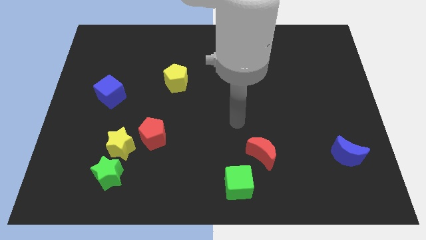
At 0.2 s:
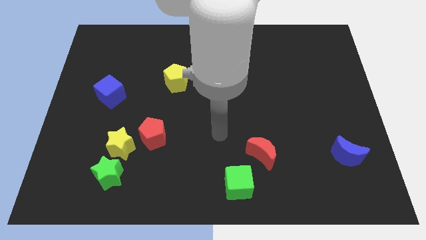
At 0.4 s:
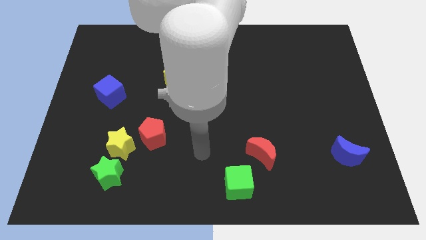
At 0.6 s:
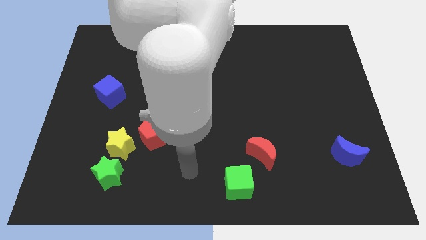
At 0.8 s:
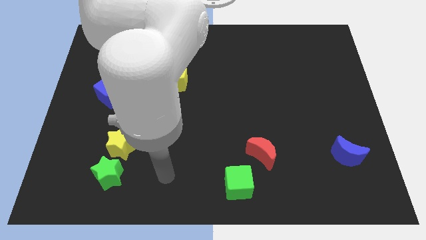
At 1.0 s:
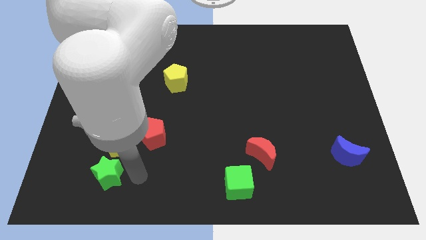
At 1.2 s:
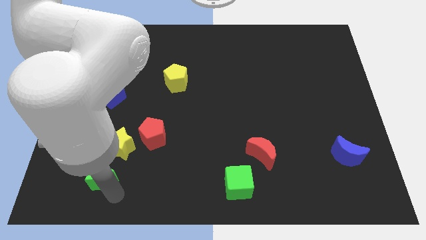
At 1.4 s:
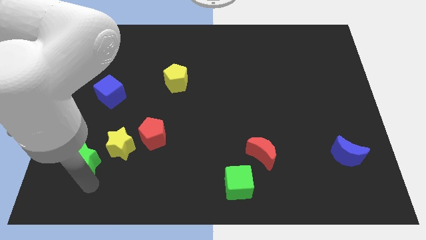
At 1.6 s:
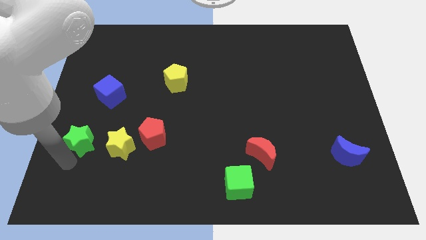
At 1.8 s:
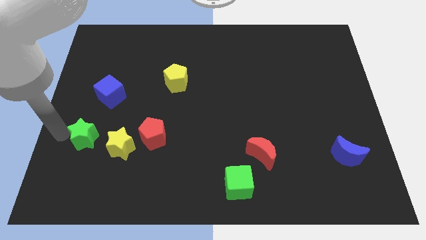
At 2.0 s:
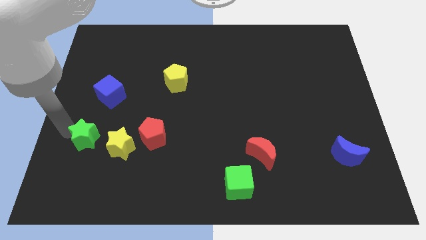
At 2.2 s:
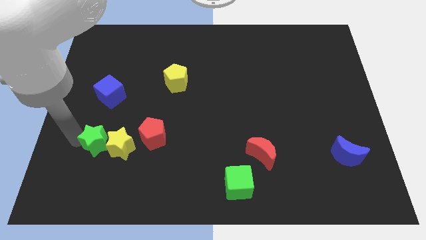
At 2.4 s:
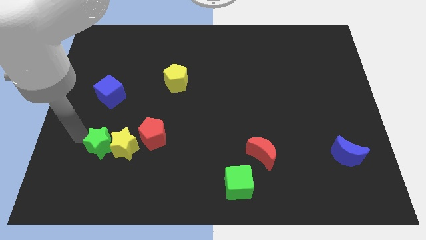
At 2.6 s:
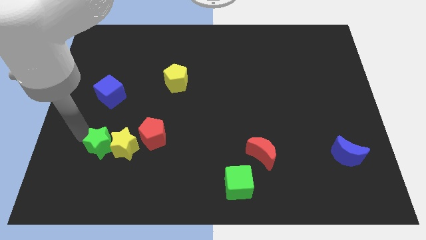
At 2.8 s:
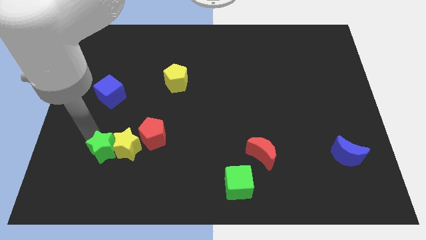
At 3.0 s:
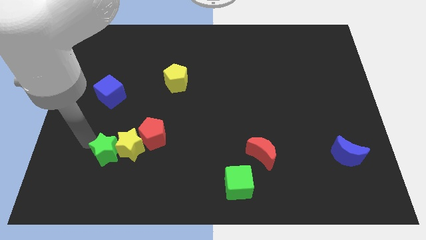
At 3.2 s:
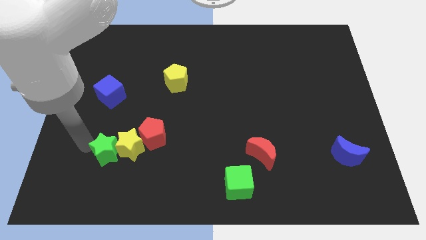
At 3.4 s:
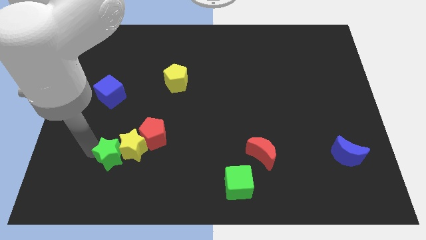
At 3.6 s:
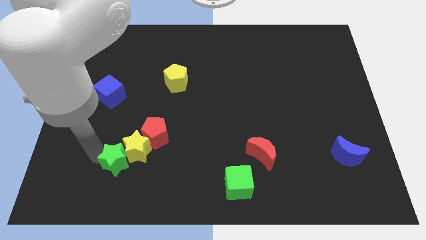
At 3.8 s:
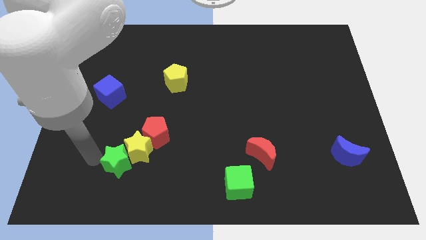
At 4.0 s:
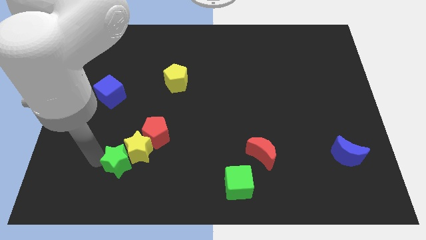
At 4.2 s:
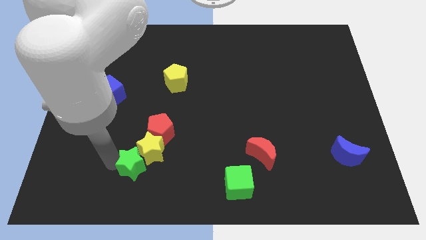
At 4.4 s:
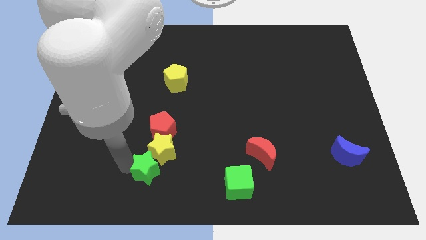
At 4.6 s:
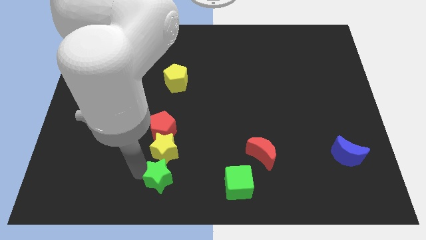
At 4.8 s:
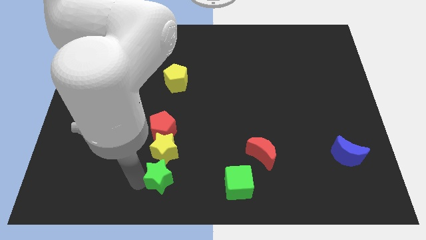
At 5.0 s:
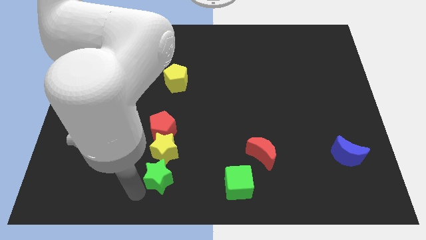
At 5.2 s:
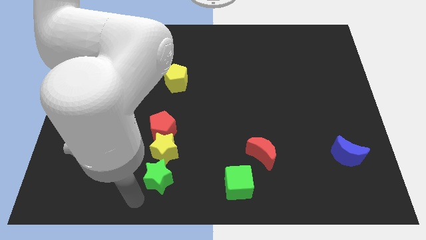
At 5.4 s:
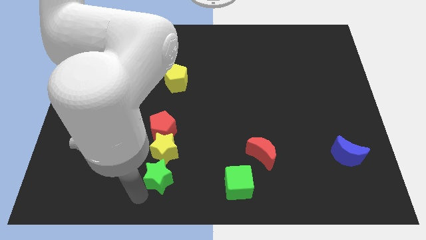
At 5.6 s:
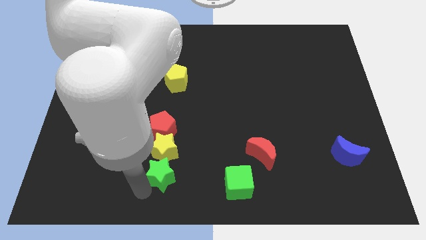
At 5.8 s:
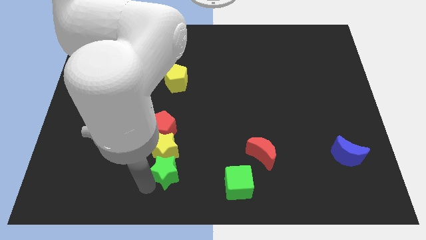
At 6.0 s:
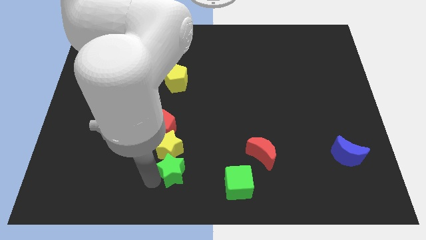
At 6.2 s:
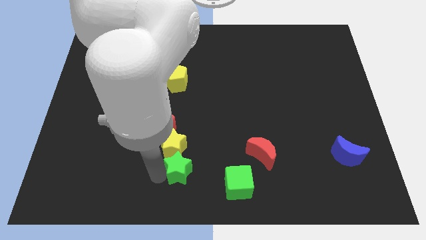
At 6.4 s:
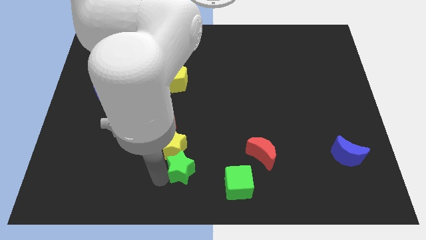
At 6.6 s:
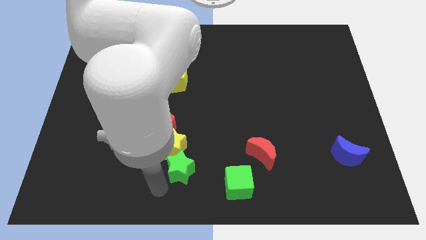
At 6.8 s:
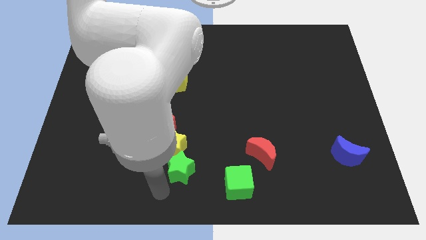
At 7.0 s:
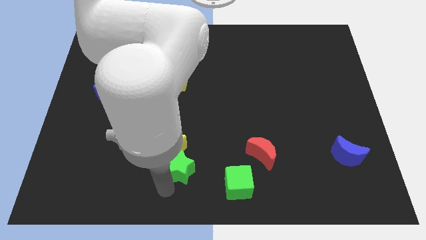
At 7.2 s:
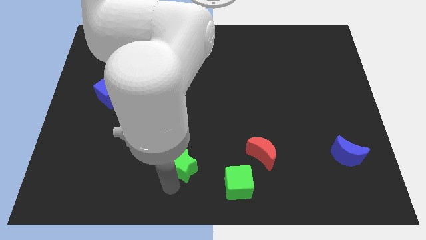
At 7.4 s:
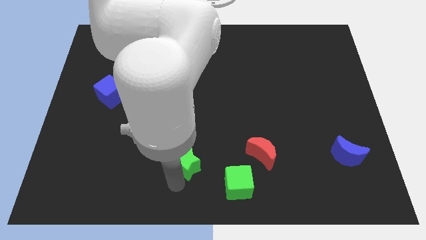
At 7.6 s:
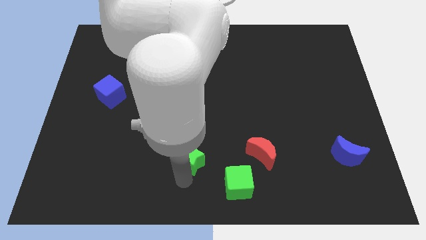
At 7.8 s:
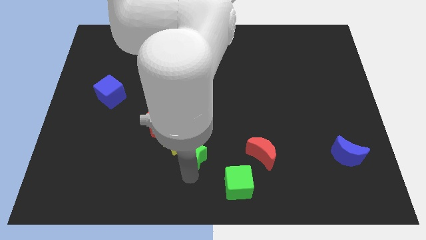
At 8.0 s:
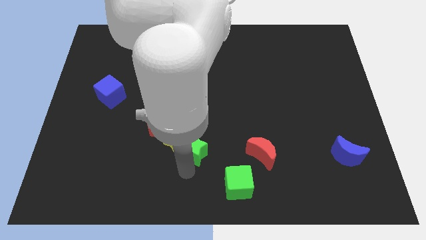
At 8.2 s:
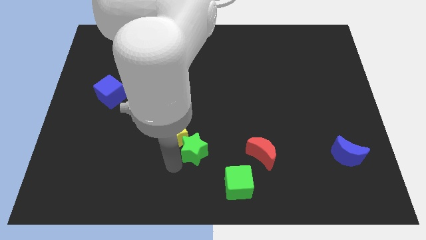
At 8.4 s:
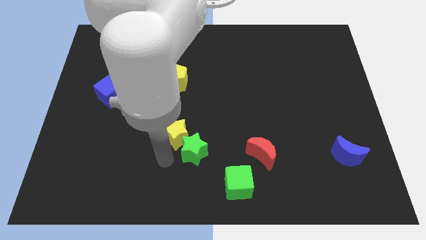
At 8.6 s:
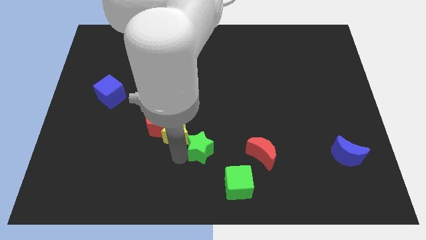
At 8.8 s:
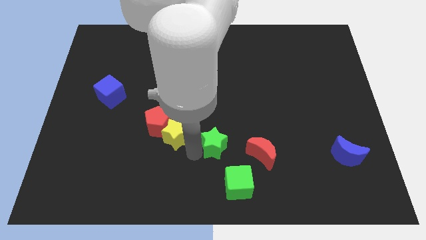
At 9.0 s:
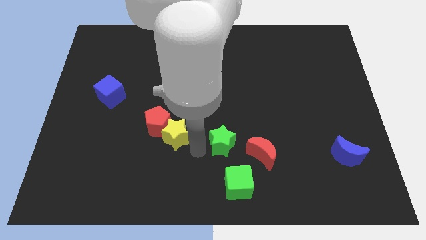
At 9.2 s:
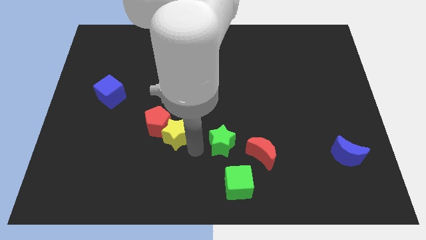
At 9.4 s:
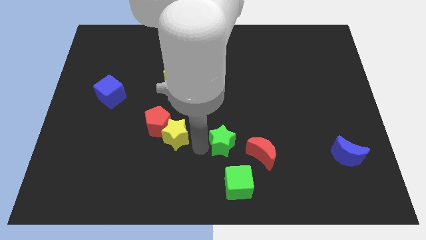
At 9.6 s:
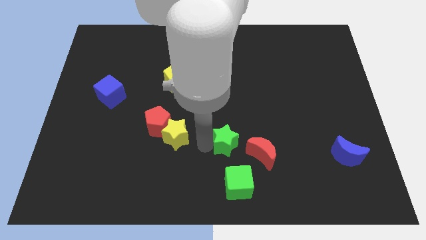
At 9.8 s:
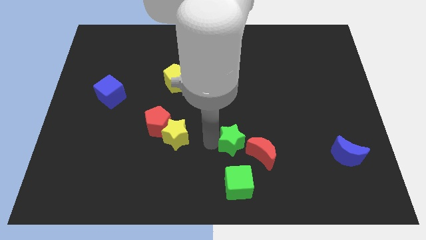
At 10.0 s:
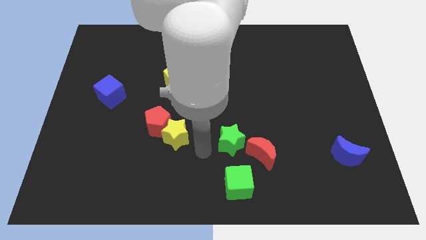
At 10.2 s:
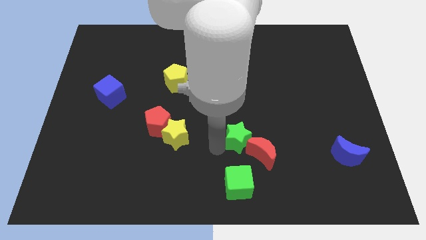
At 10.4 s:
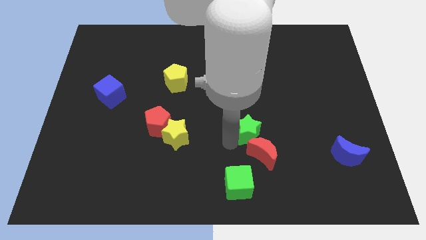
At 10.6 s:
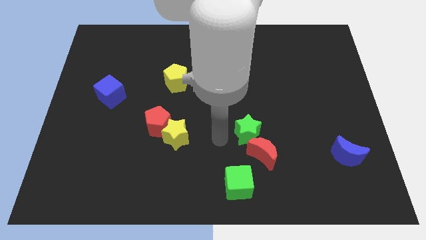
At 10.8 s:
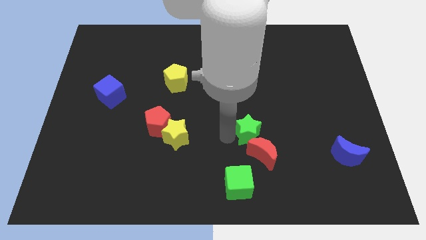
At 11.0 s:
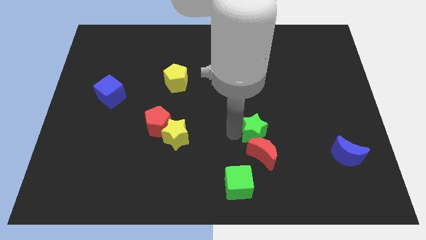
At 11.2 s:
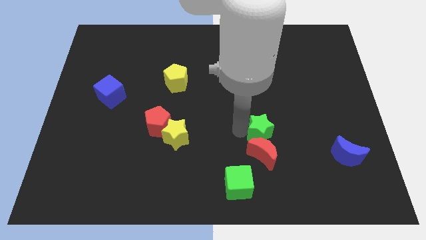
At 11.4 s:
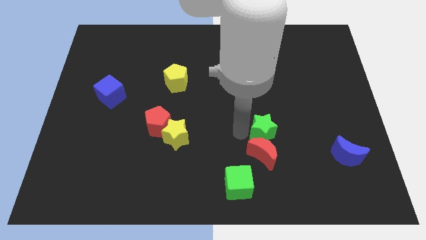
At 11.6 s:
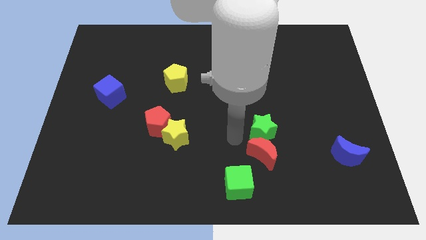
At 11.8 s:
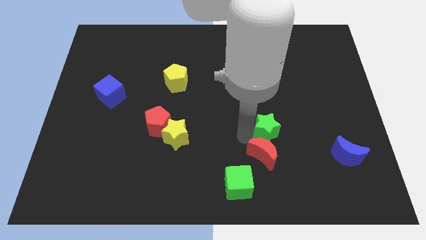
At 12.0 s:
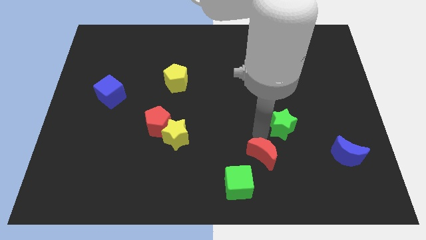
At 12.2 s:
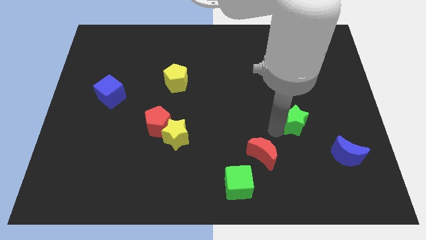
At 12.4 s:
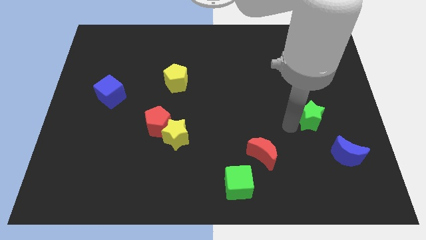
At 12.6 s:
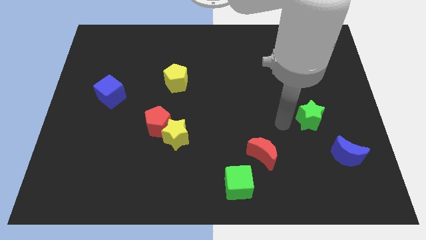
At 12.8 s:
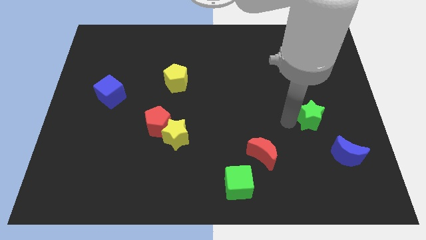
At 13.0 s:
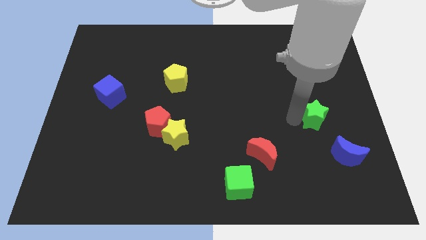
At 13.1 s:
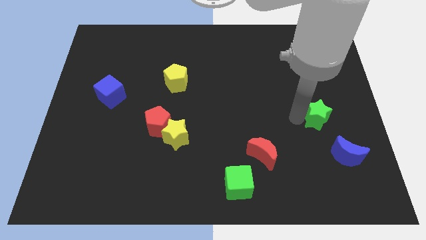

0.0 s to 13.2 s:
put the green star to the top of the blue moon
